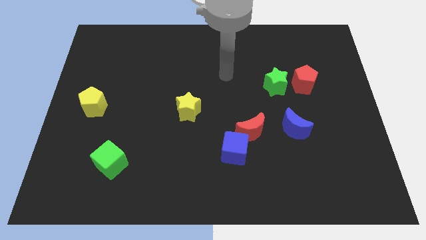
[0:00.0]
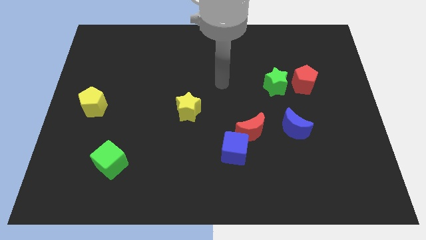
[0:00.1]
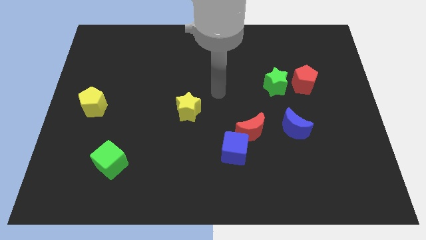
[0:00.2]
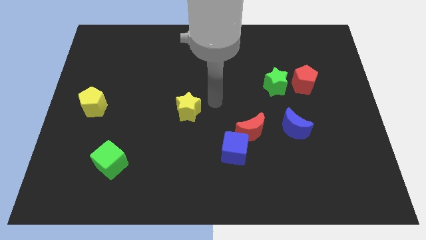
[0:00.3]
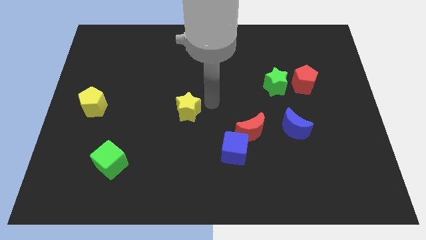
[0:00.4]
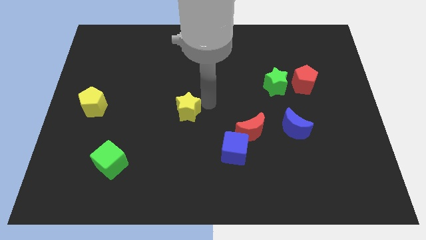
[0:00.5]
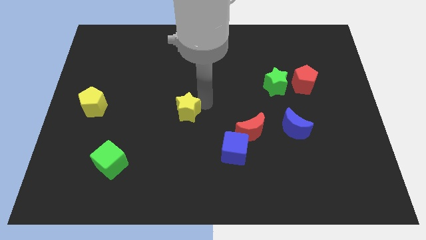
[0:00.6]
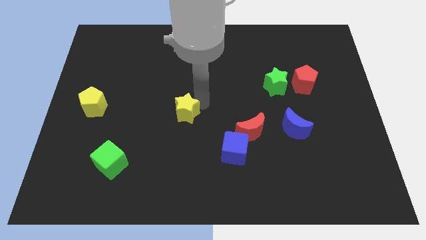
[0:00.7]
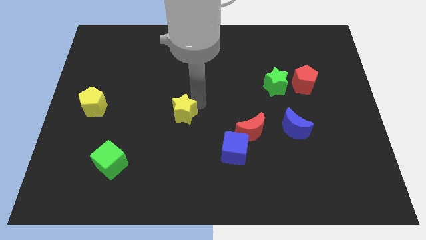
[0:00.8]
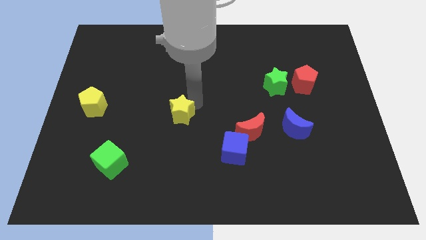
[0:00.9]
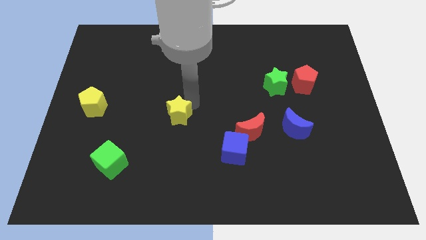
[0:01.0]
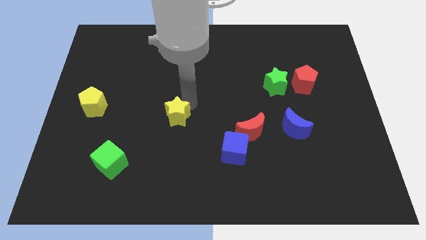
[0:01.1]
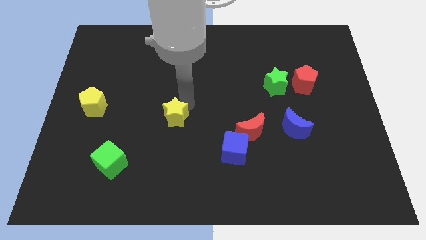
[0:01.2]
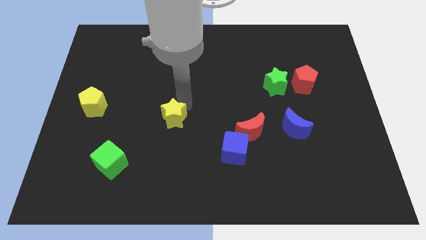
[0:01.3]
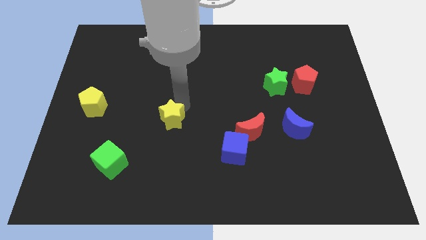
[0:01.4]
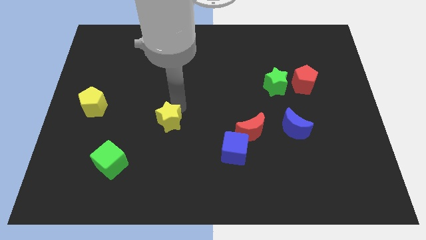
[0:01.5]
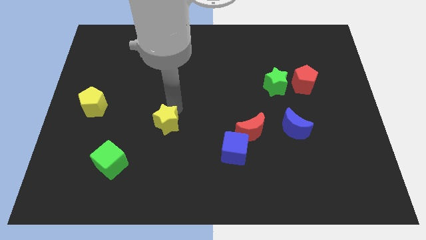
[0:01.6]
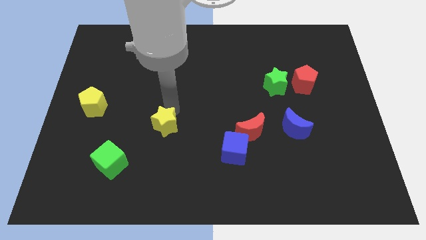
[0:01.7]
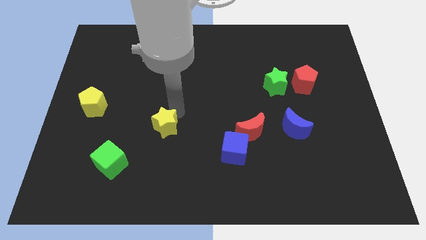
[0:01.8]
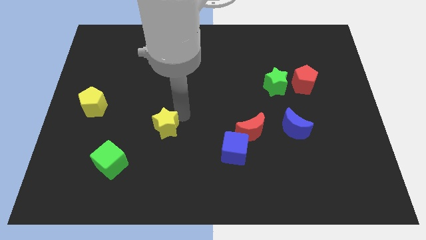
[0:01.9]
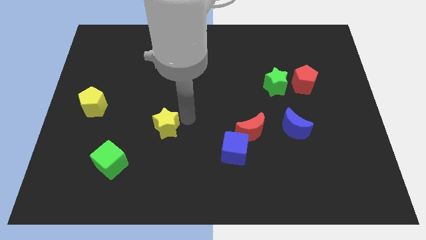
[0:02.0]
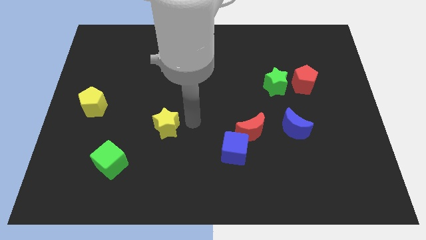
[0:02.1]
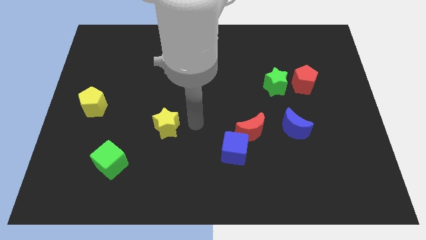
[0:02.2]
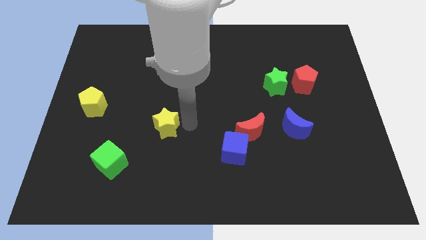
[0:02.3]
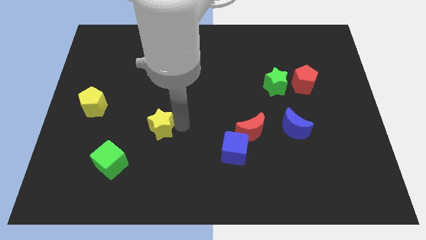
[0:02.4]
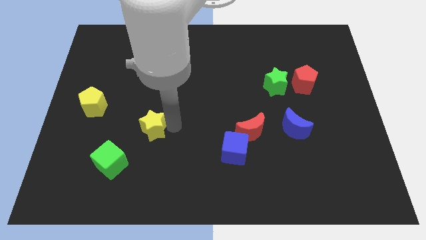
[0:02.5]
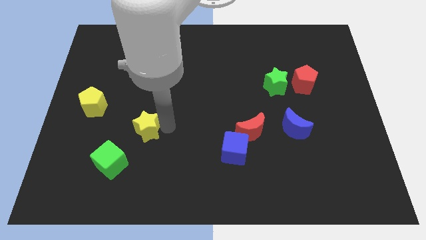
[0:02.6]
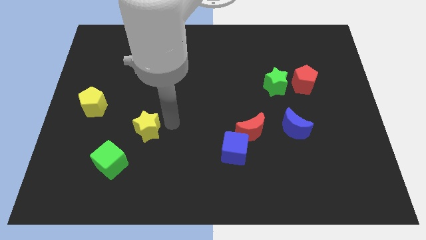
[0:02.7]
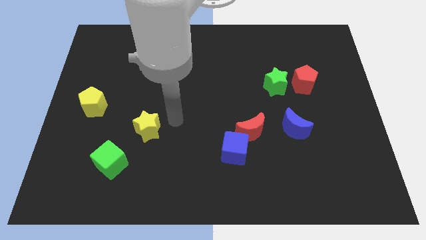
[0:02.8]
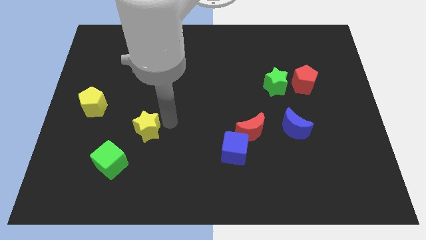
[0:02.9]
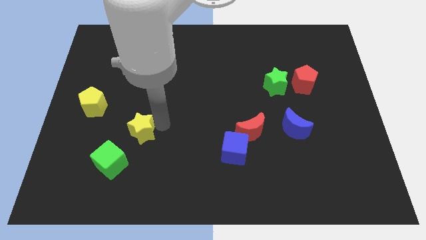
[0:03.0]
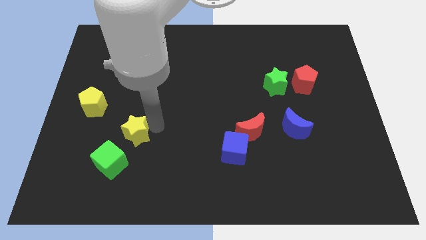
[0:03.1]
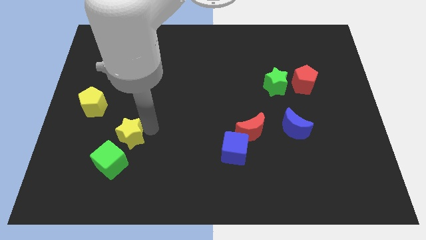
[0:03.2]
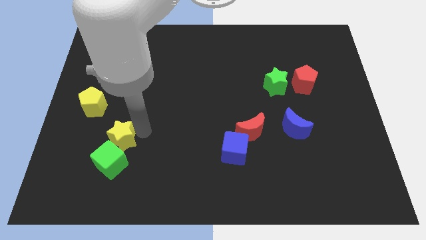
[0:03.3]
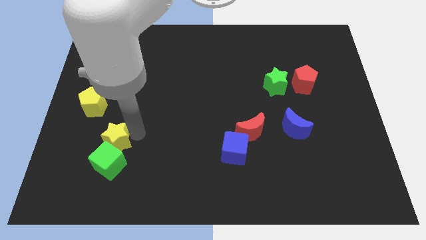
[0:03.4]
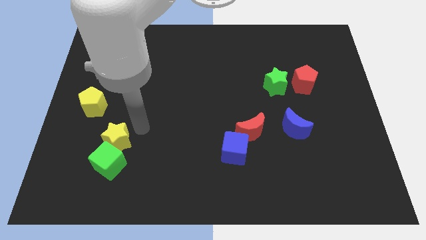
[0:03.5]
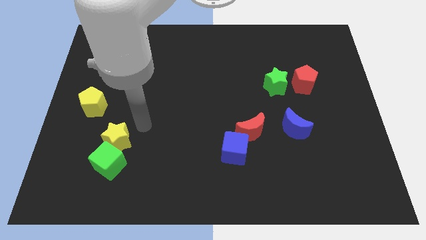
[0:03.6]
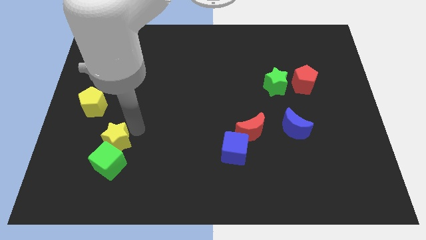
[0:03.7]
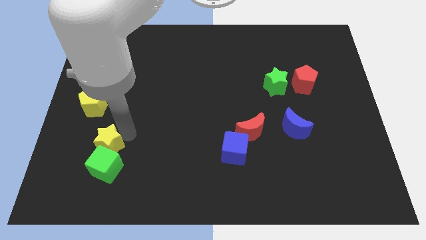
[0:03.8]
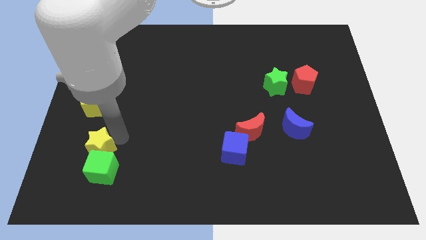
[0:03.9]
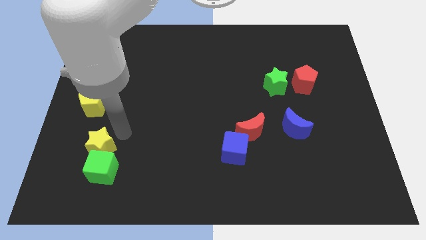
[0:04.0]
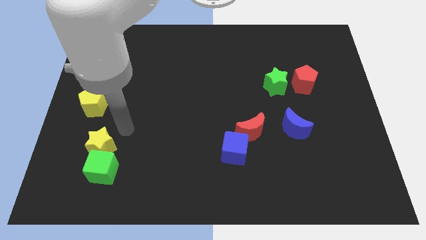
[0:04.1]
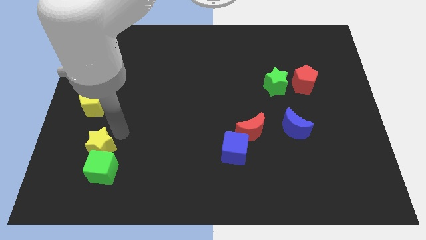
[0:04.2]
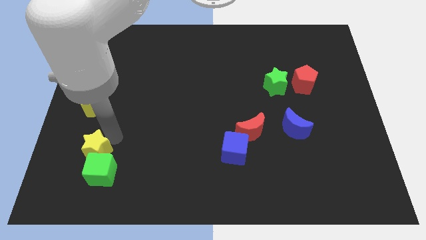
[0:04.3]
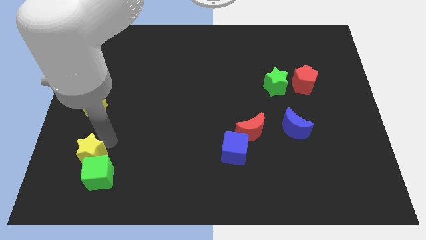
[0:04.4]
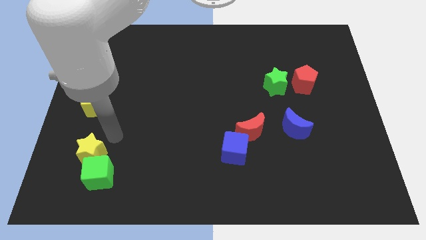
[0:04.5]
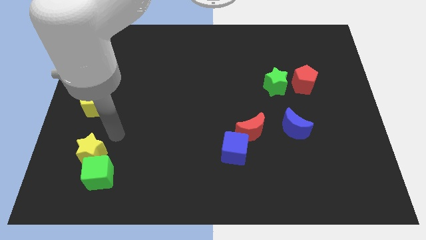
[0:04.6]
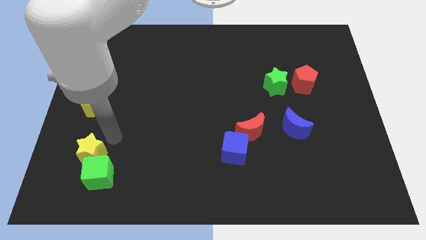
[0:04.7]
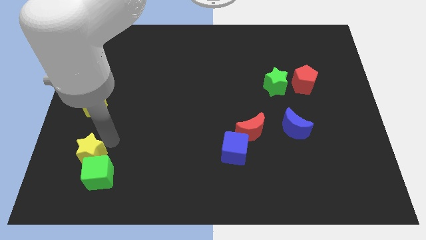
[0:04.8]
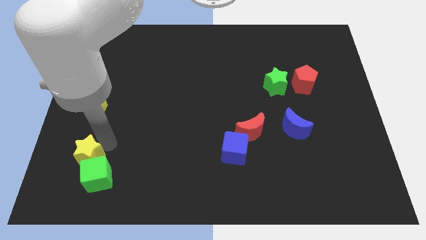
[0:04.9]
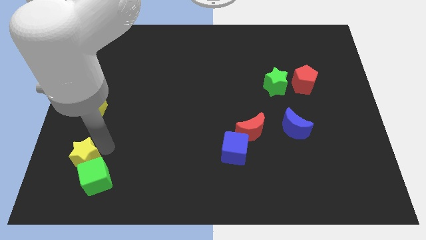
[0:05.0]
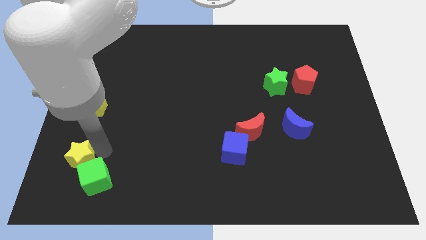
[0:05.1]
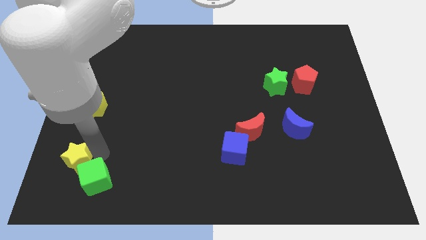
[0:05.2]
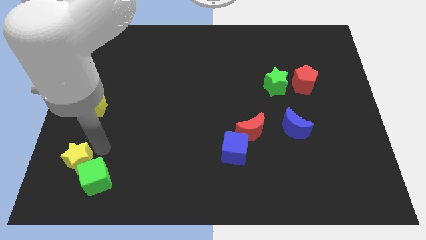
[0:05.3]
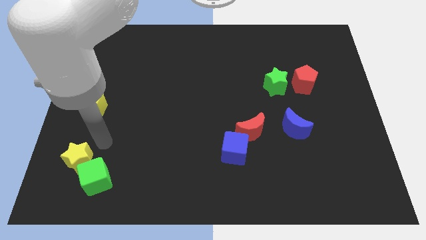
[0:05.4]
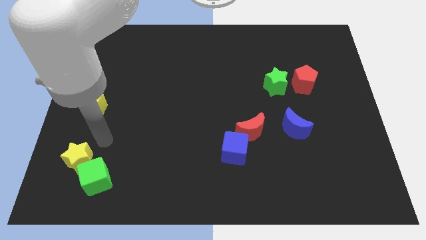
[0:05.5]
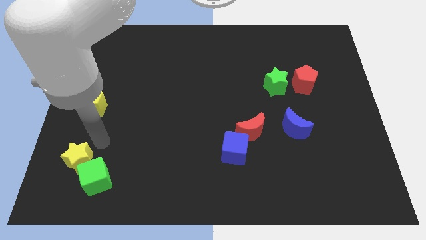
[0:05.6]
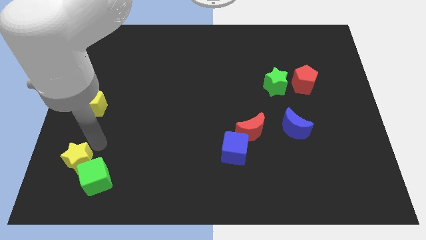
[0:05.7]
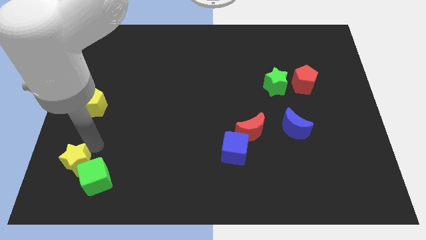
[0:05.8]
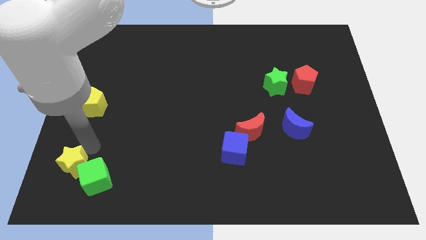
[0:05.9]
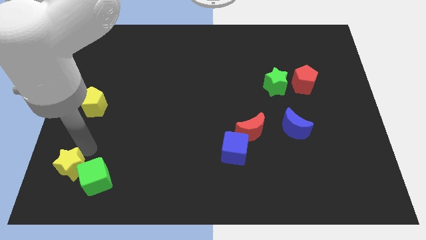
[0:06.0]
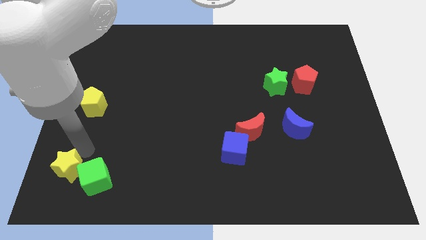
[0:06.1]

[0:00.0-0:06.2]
move the yellow star to the bottom left corner
